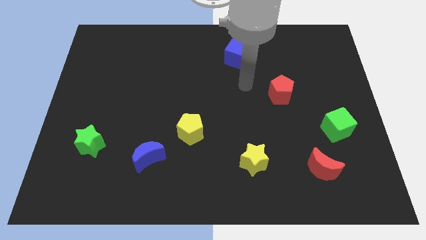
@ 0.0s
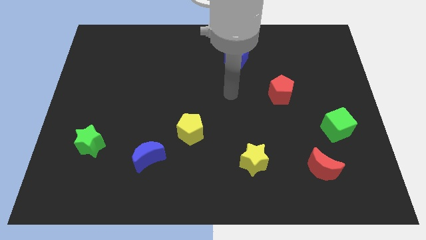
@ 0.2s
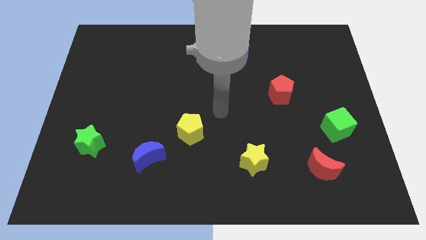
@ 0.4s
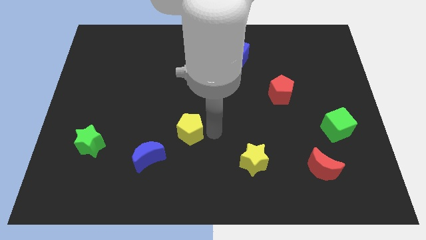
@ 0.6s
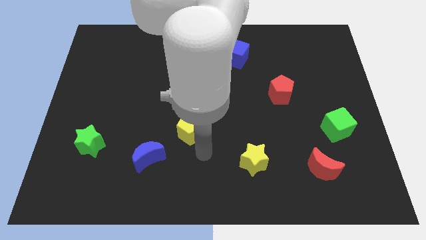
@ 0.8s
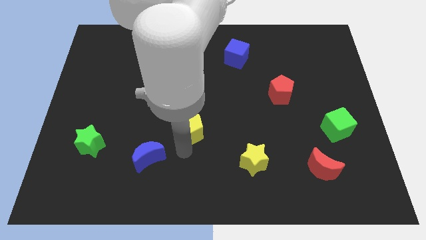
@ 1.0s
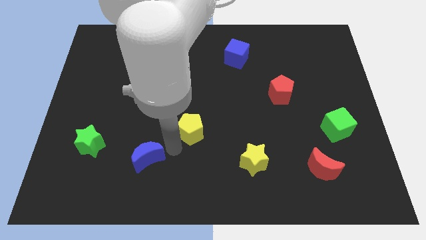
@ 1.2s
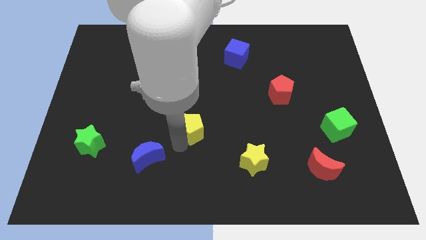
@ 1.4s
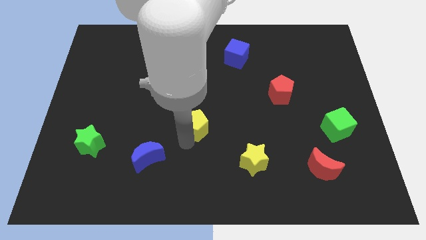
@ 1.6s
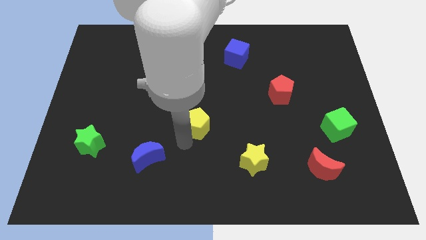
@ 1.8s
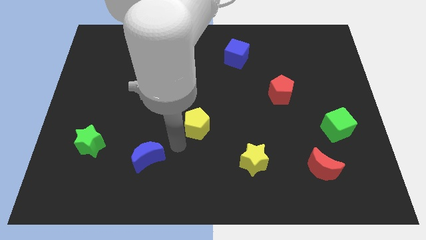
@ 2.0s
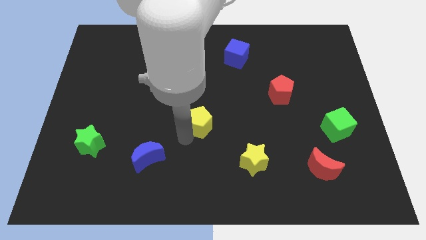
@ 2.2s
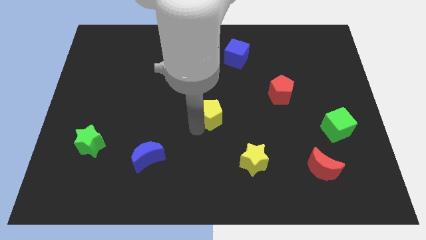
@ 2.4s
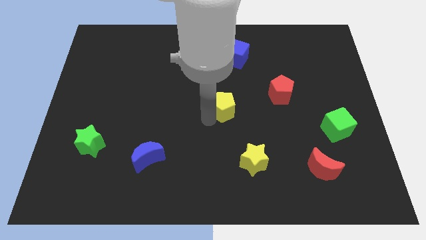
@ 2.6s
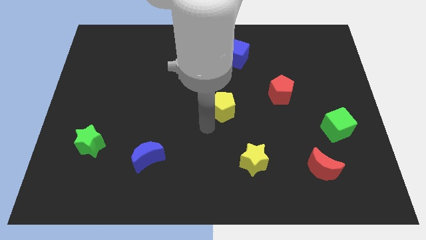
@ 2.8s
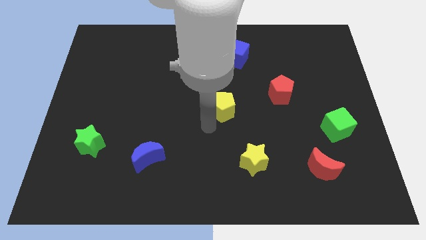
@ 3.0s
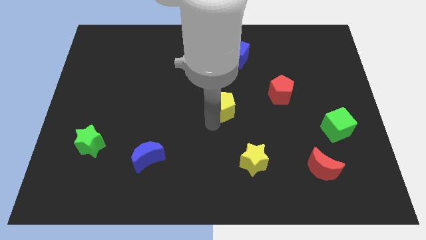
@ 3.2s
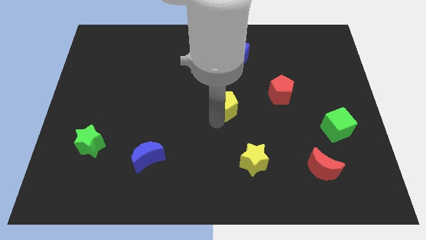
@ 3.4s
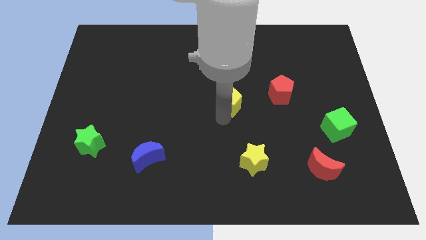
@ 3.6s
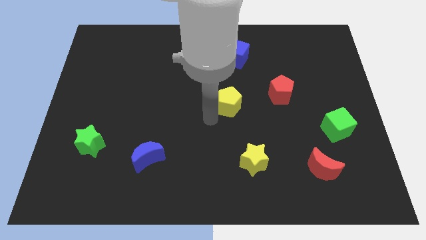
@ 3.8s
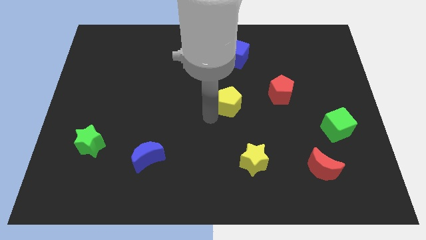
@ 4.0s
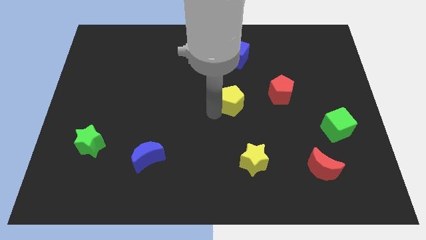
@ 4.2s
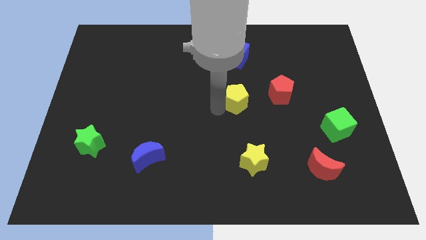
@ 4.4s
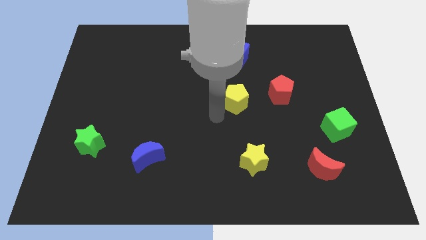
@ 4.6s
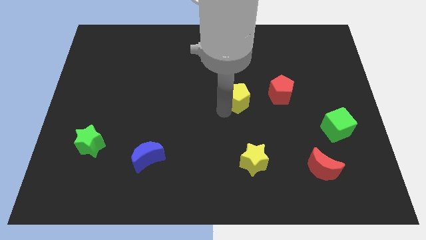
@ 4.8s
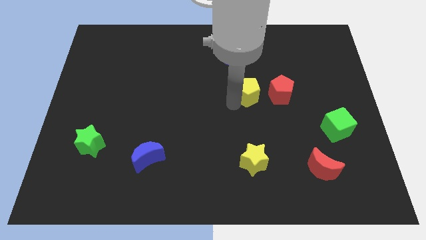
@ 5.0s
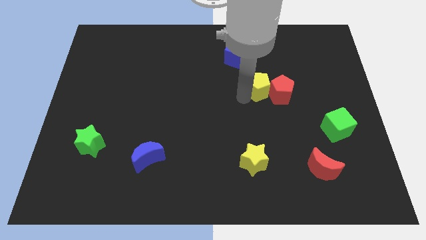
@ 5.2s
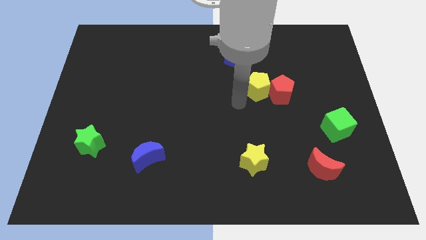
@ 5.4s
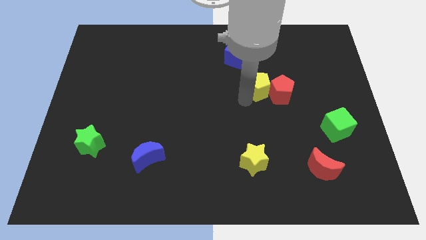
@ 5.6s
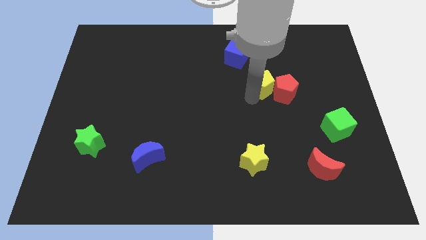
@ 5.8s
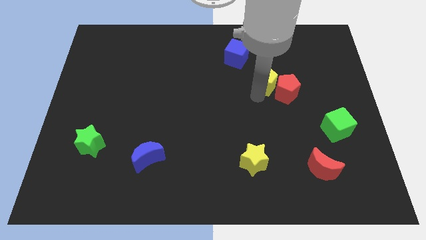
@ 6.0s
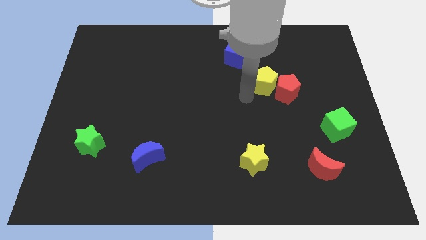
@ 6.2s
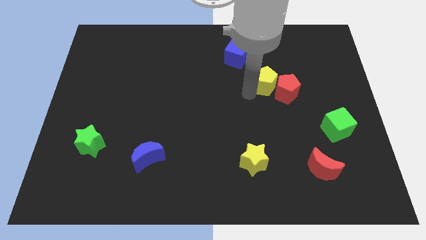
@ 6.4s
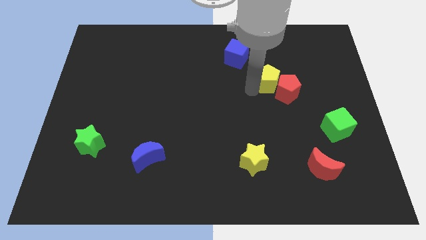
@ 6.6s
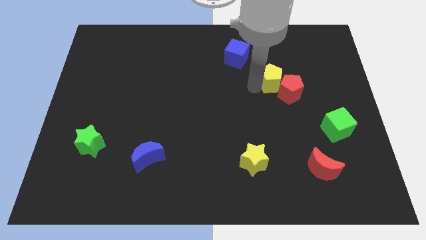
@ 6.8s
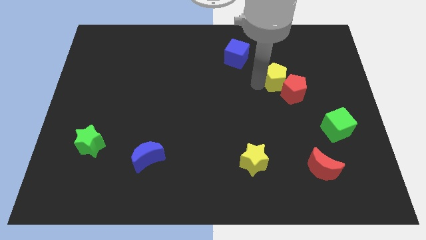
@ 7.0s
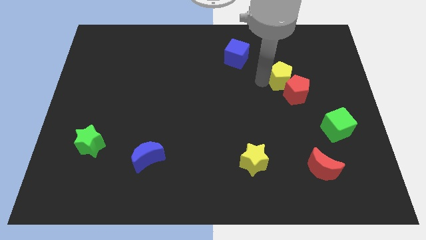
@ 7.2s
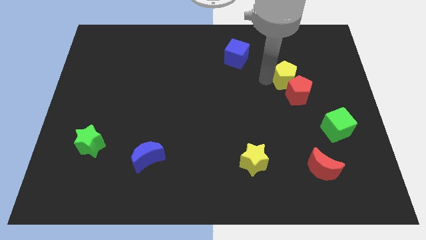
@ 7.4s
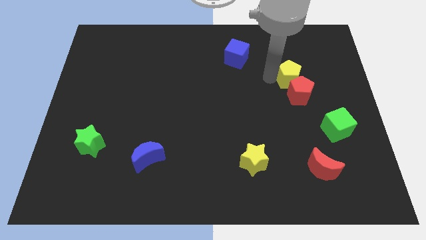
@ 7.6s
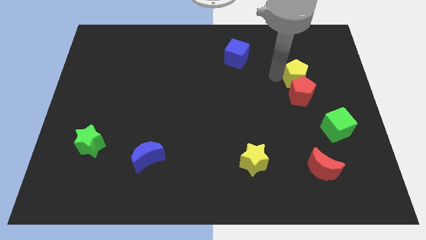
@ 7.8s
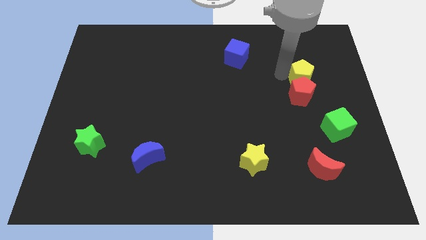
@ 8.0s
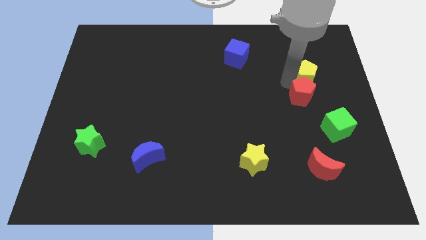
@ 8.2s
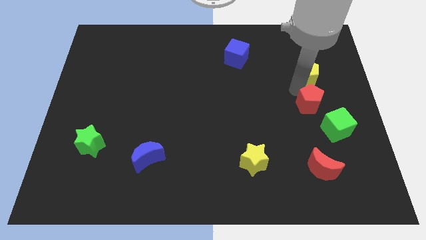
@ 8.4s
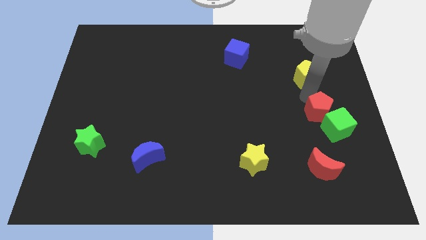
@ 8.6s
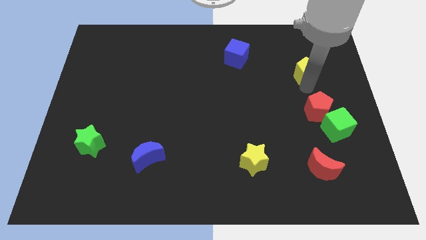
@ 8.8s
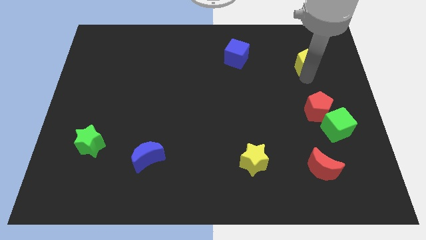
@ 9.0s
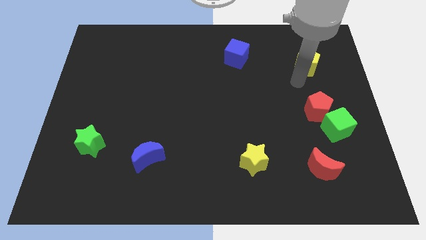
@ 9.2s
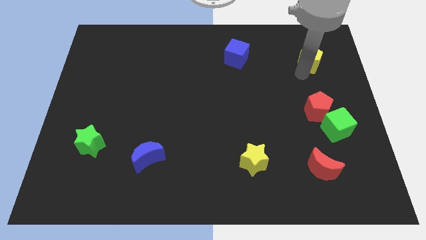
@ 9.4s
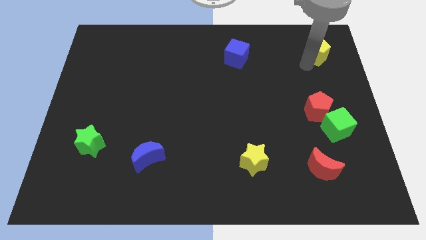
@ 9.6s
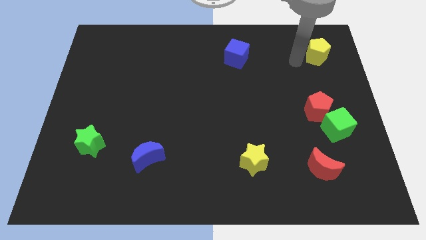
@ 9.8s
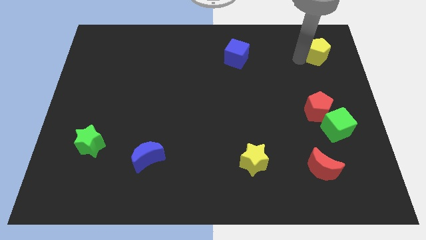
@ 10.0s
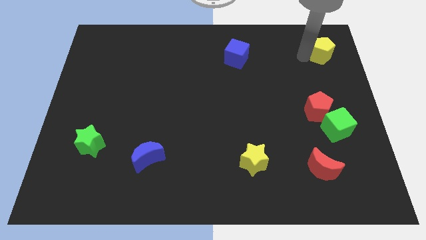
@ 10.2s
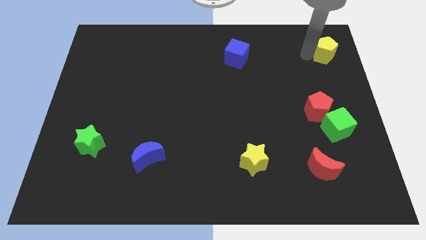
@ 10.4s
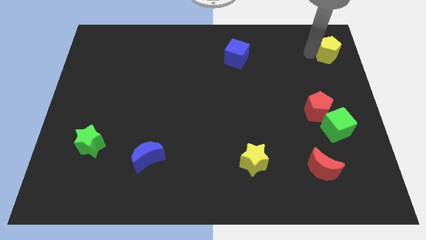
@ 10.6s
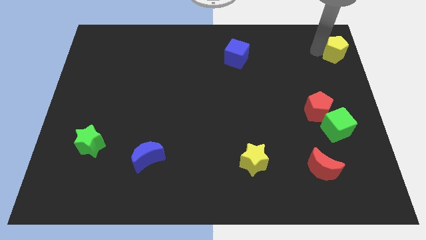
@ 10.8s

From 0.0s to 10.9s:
push the yellow pentagon to the upper right corner

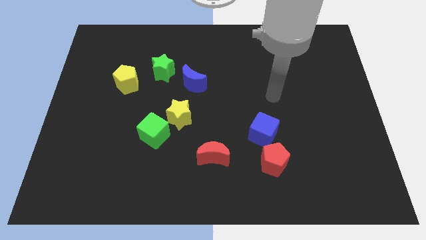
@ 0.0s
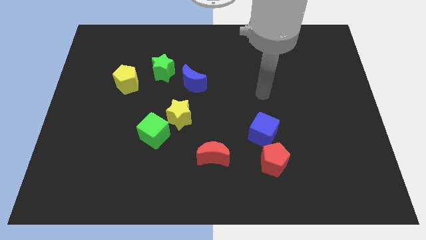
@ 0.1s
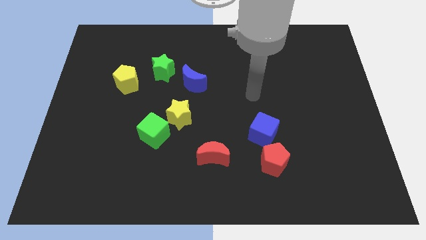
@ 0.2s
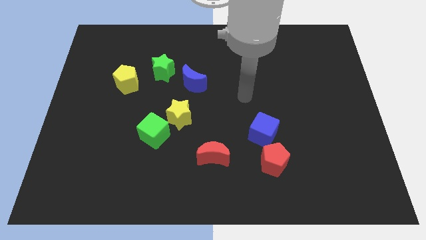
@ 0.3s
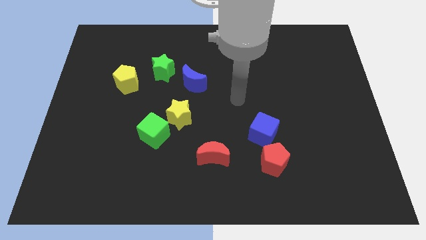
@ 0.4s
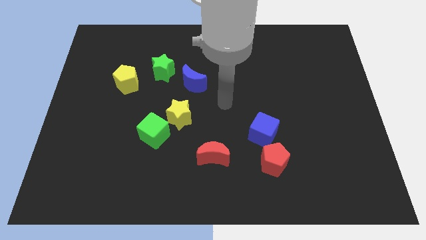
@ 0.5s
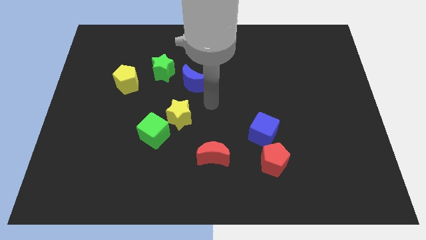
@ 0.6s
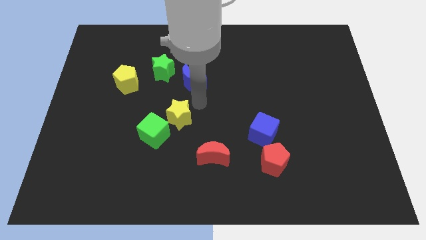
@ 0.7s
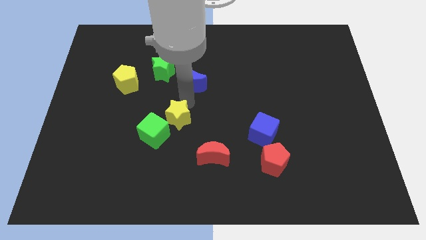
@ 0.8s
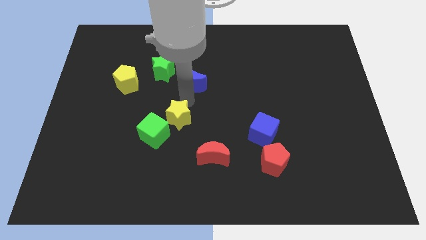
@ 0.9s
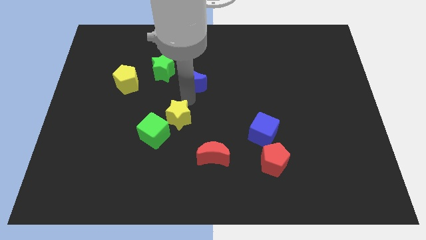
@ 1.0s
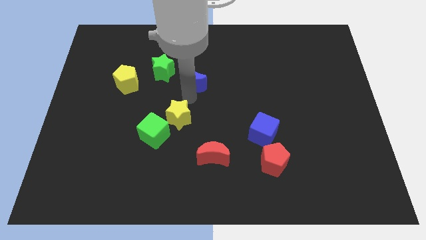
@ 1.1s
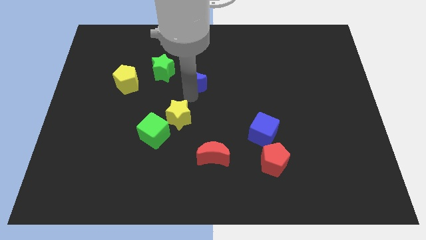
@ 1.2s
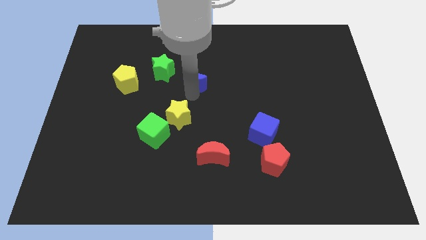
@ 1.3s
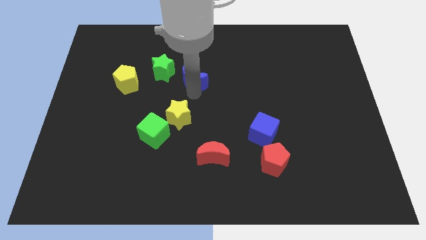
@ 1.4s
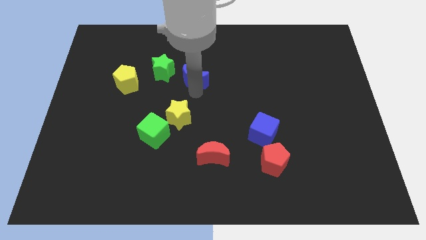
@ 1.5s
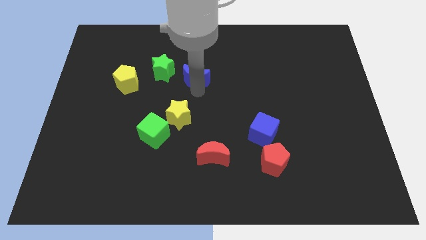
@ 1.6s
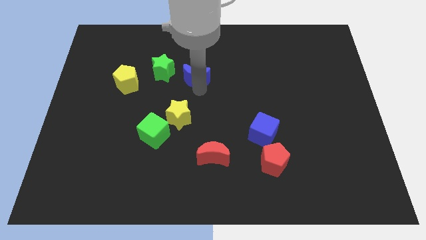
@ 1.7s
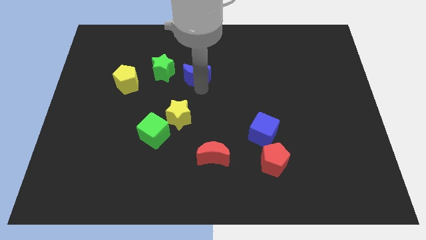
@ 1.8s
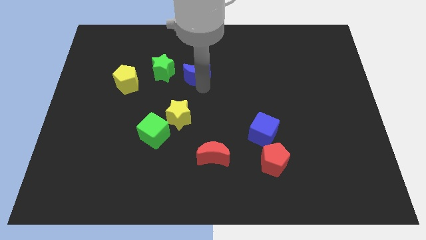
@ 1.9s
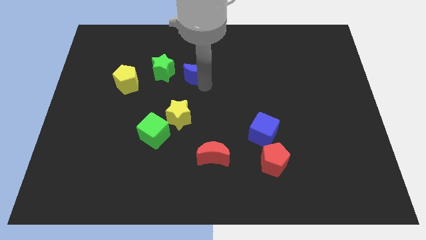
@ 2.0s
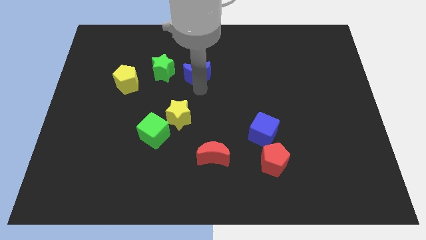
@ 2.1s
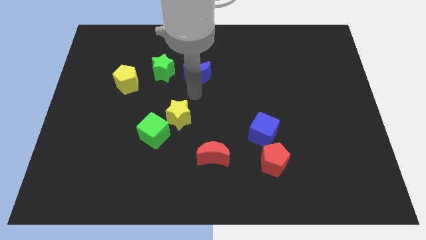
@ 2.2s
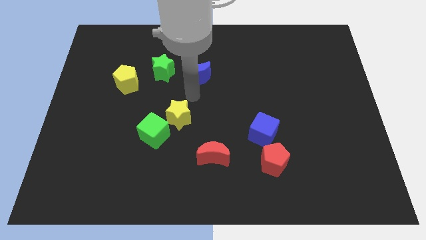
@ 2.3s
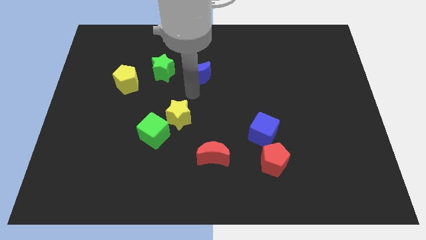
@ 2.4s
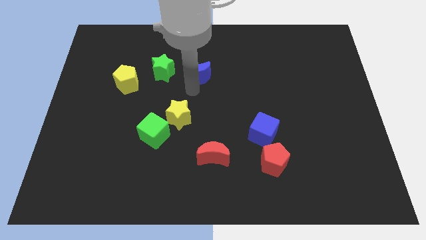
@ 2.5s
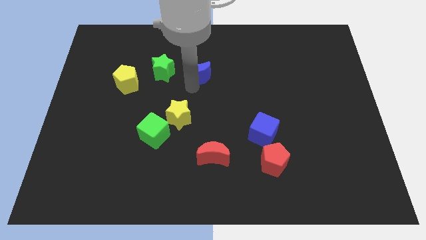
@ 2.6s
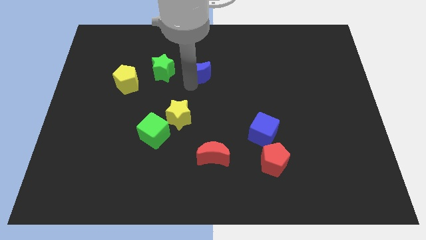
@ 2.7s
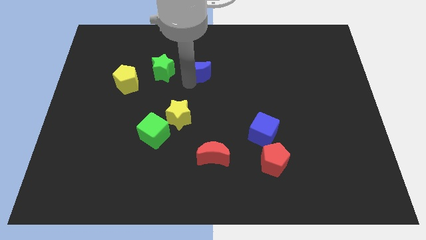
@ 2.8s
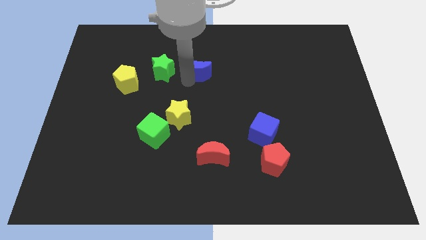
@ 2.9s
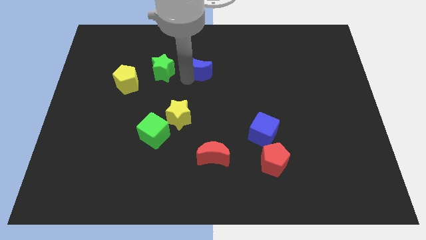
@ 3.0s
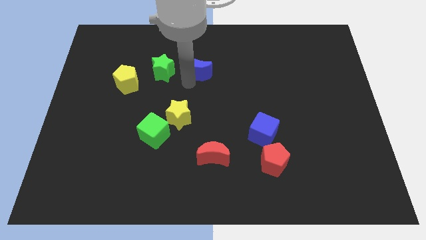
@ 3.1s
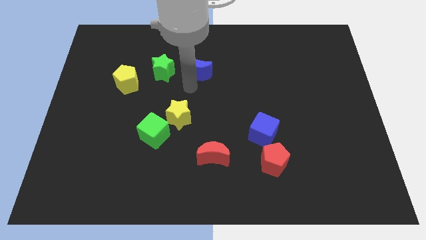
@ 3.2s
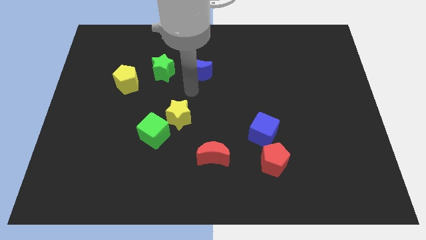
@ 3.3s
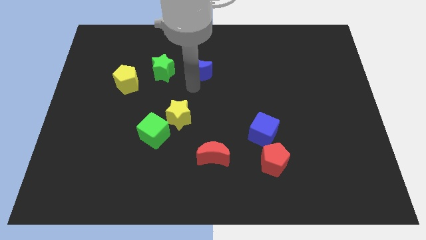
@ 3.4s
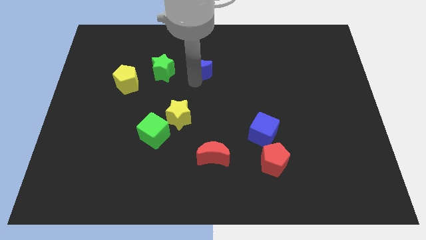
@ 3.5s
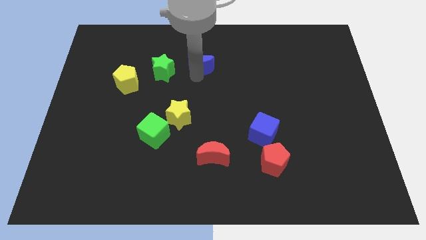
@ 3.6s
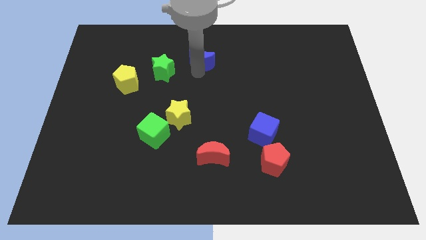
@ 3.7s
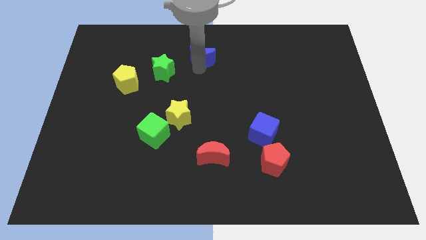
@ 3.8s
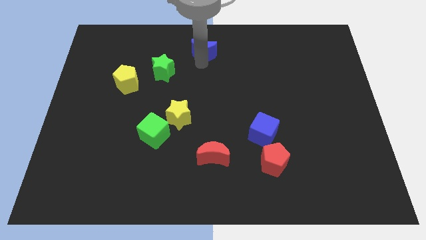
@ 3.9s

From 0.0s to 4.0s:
push the blue moon to the top
